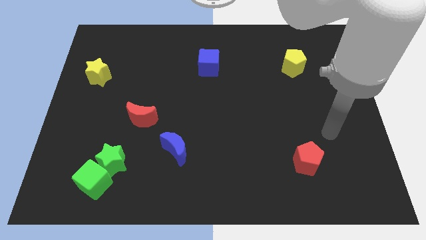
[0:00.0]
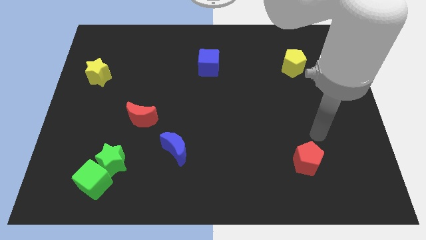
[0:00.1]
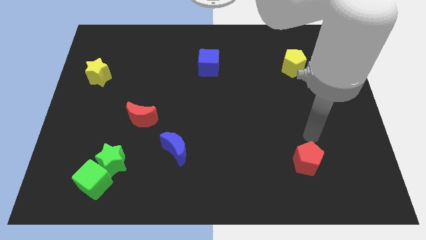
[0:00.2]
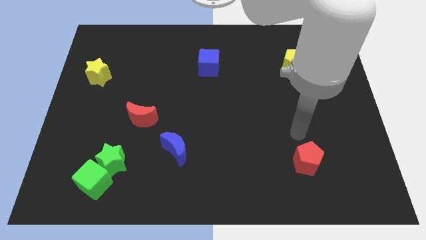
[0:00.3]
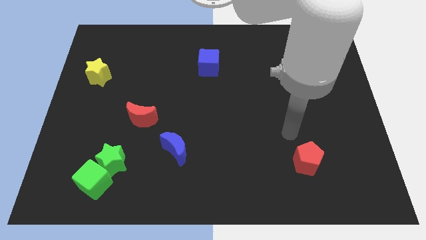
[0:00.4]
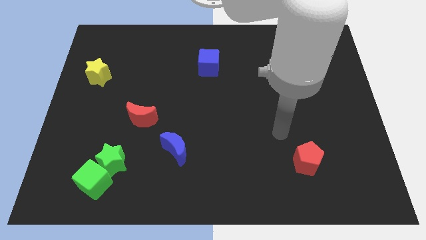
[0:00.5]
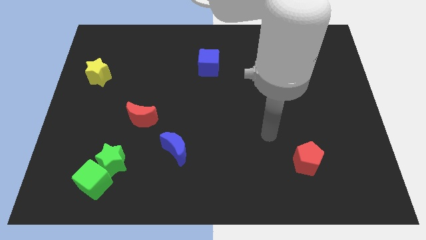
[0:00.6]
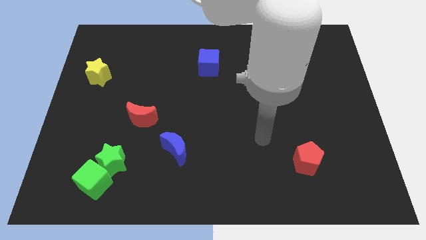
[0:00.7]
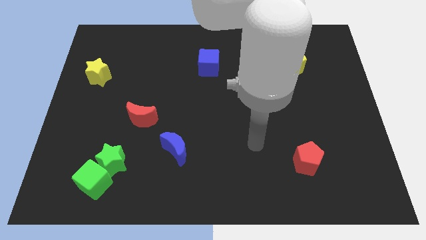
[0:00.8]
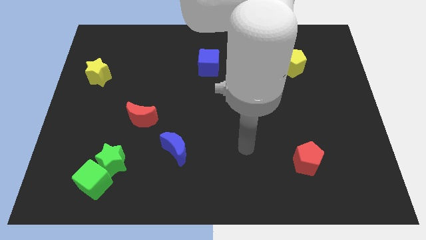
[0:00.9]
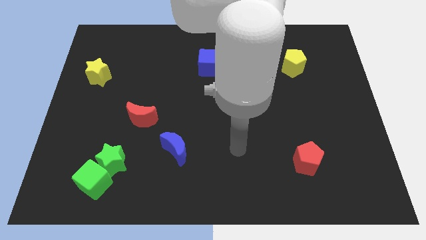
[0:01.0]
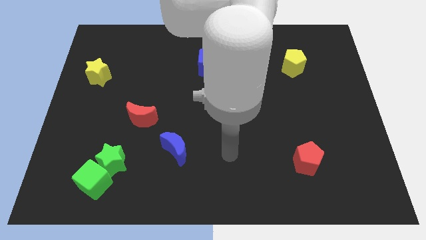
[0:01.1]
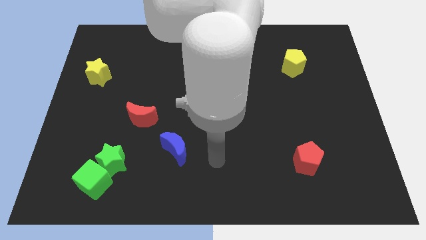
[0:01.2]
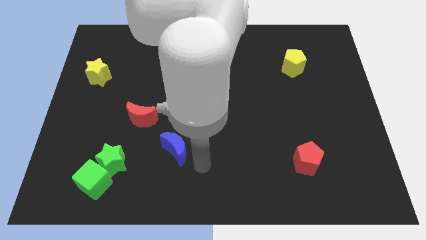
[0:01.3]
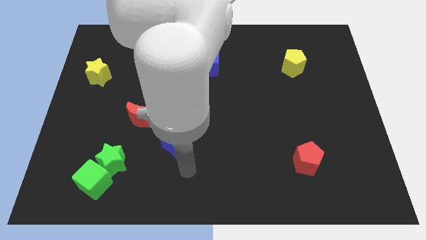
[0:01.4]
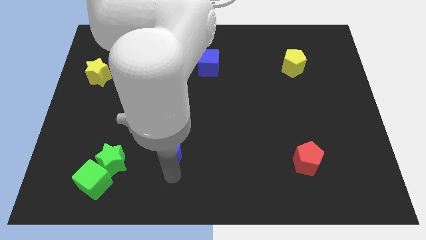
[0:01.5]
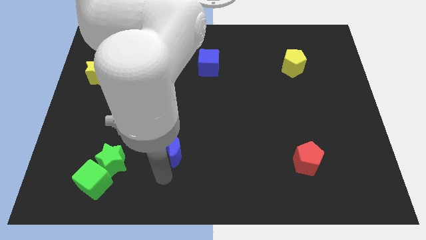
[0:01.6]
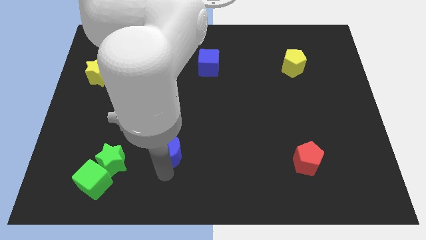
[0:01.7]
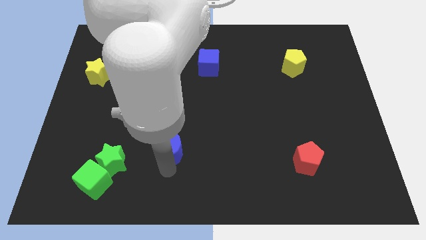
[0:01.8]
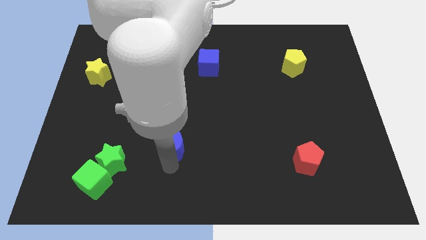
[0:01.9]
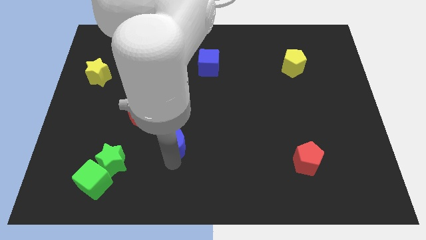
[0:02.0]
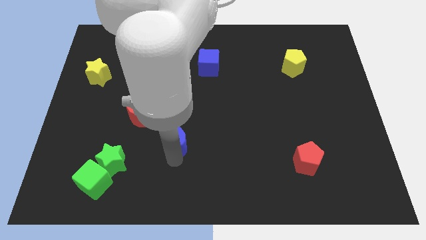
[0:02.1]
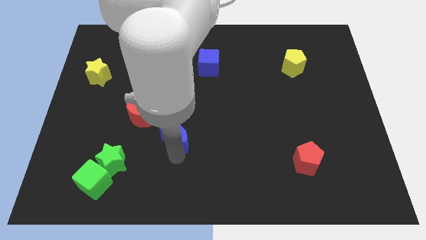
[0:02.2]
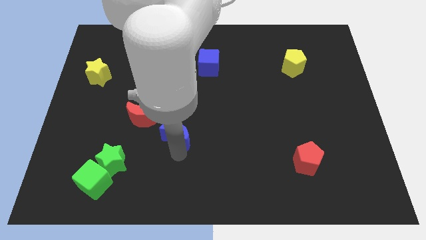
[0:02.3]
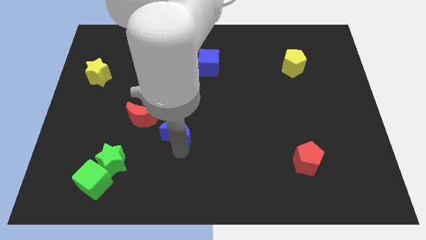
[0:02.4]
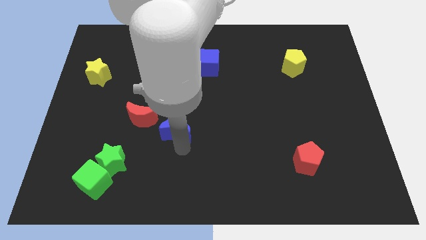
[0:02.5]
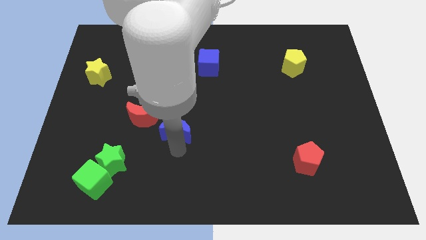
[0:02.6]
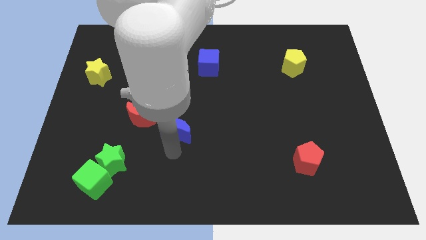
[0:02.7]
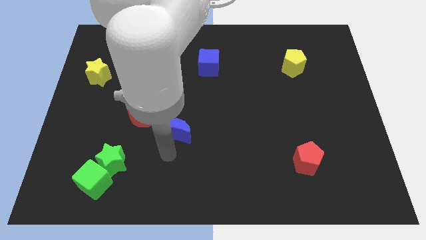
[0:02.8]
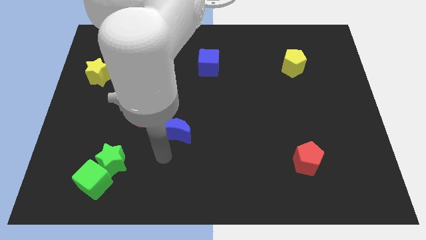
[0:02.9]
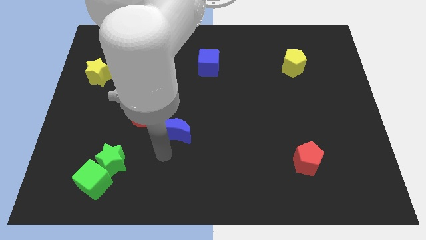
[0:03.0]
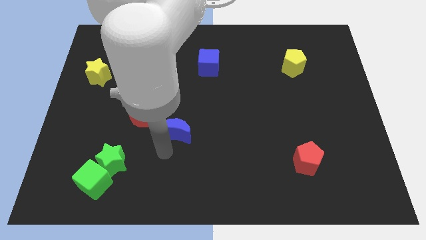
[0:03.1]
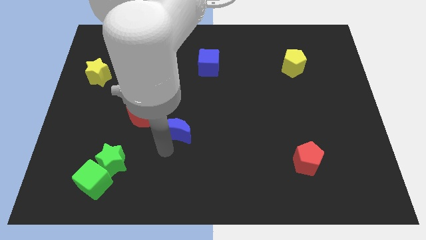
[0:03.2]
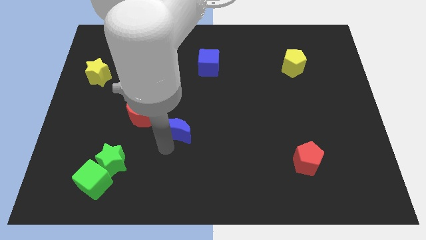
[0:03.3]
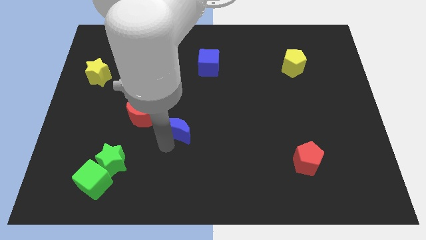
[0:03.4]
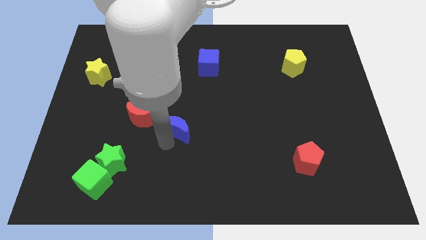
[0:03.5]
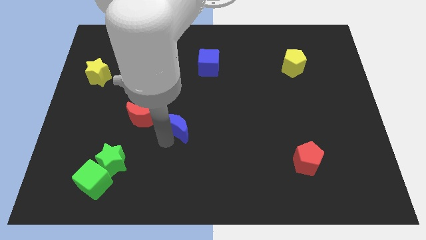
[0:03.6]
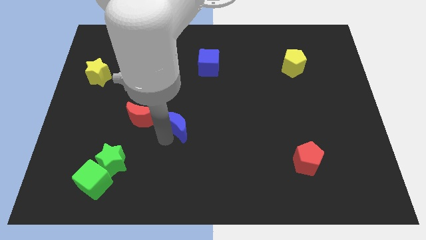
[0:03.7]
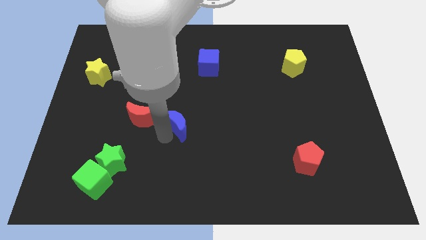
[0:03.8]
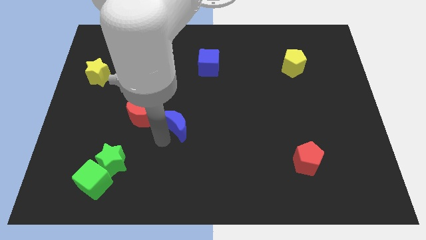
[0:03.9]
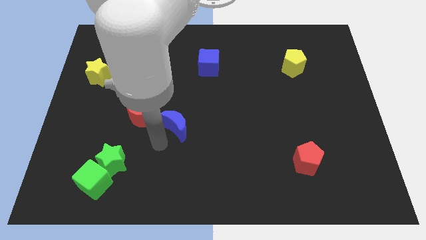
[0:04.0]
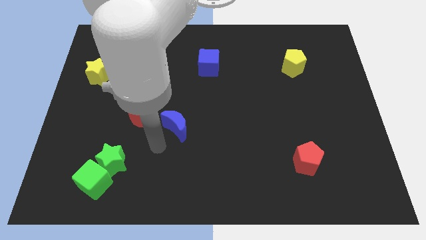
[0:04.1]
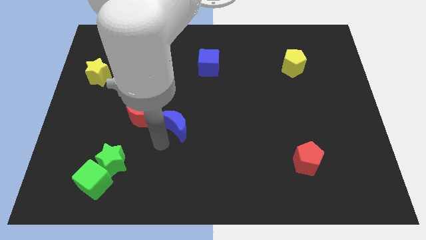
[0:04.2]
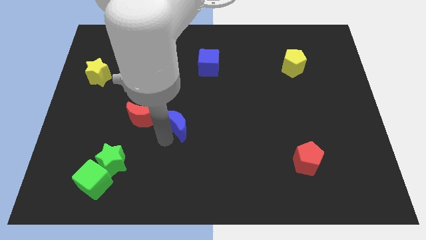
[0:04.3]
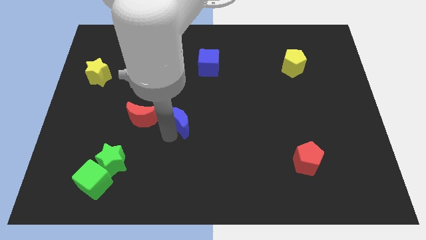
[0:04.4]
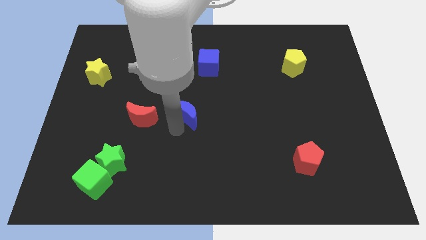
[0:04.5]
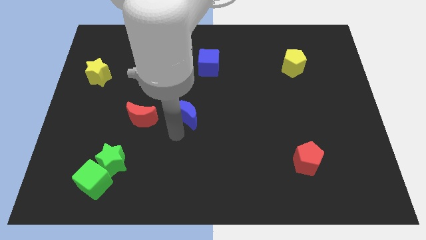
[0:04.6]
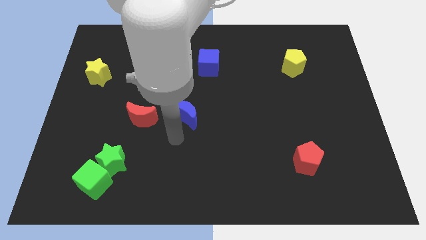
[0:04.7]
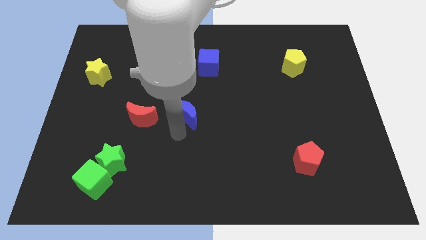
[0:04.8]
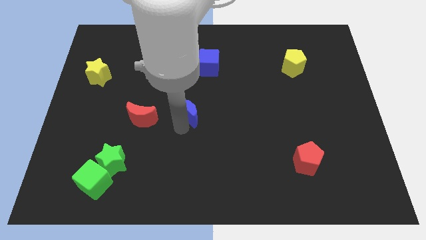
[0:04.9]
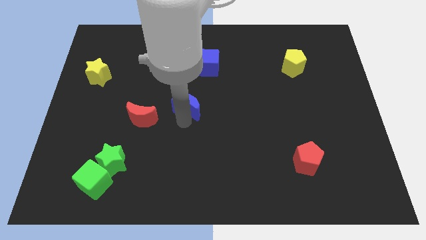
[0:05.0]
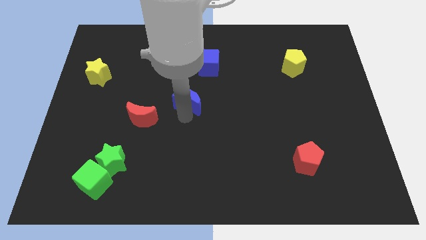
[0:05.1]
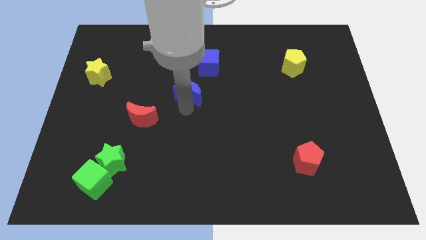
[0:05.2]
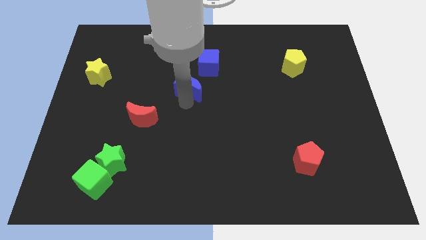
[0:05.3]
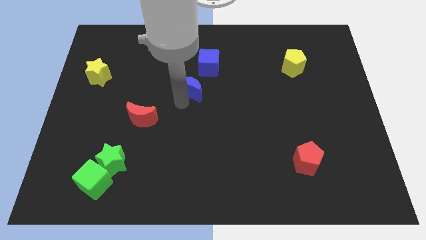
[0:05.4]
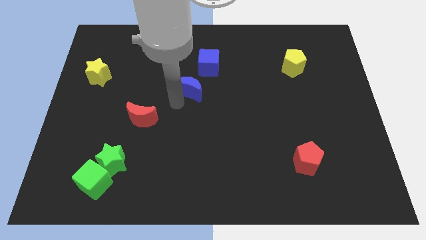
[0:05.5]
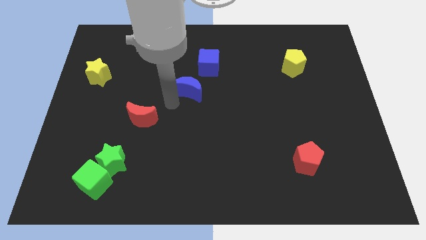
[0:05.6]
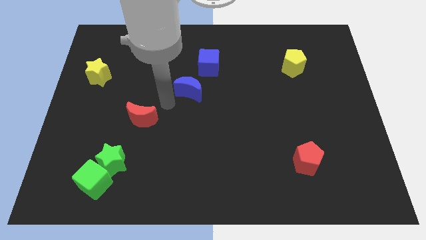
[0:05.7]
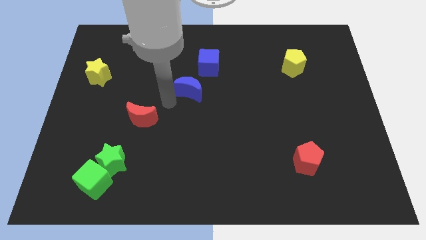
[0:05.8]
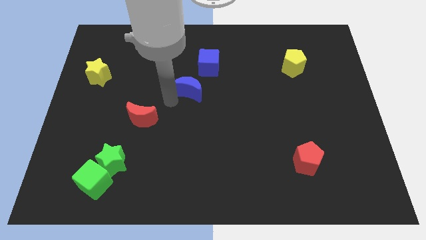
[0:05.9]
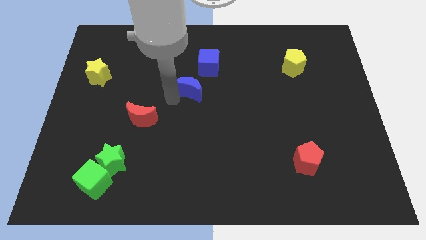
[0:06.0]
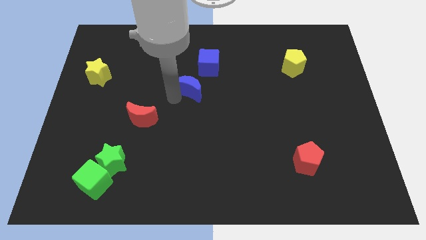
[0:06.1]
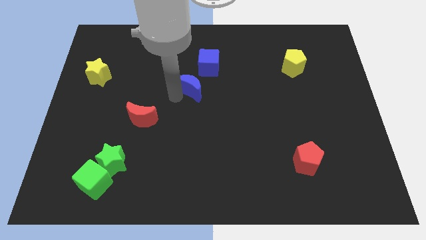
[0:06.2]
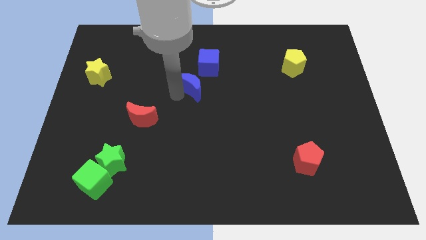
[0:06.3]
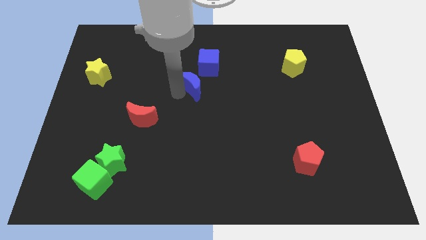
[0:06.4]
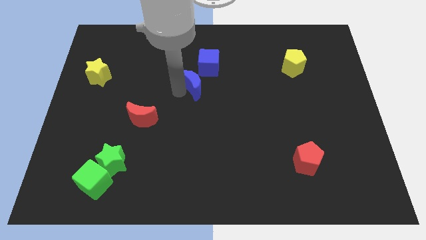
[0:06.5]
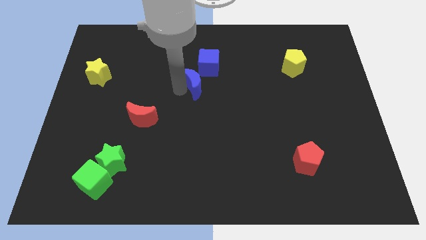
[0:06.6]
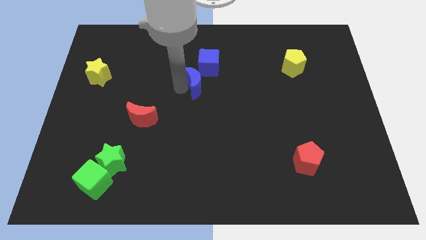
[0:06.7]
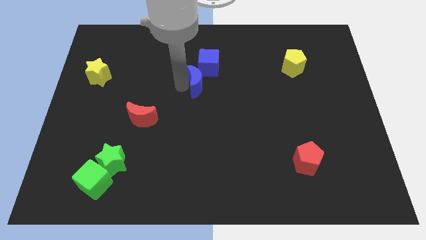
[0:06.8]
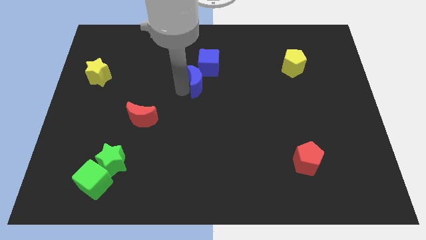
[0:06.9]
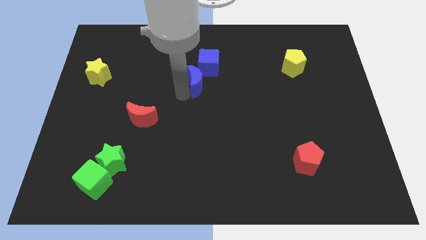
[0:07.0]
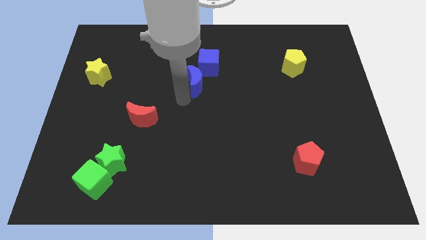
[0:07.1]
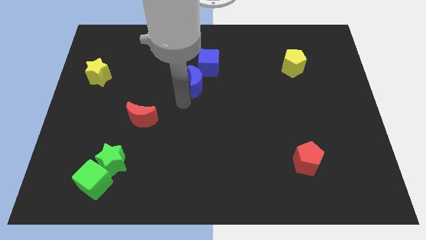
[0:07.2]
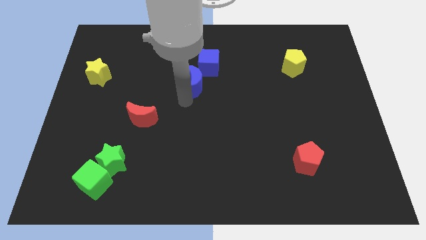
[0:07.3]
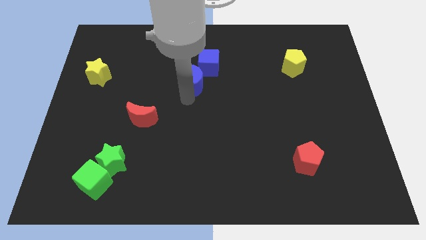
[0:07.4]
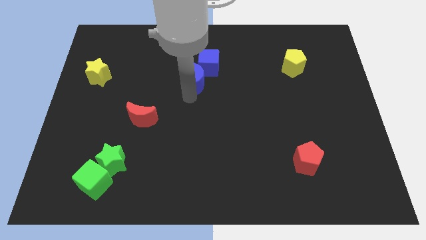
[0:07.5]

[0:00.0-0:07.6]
push the blue moon next to the blue cube
